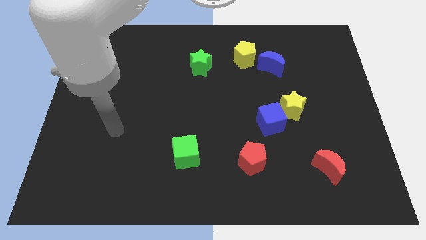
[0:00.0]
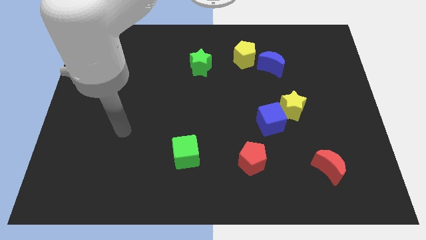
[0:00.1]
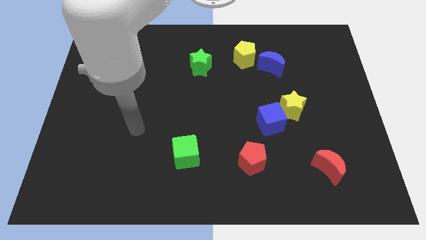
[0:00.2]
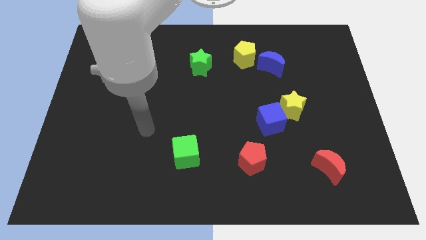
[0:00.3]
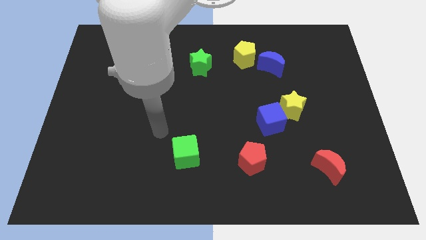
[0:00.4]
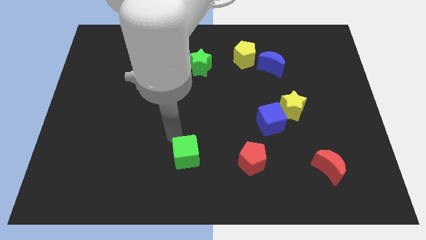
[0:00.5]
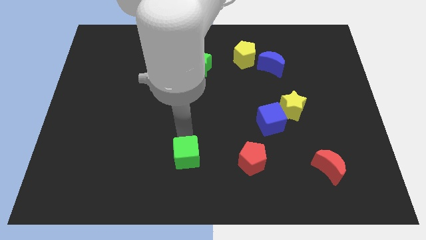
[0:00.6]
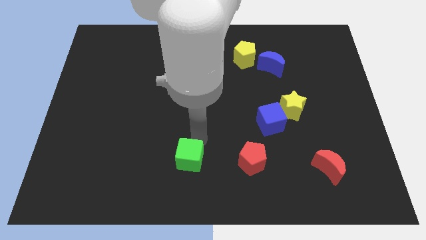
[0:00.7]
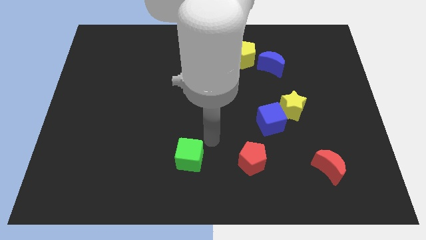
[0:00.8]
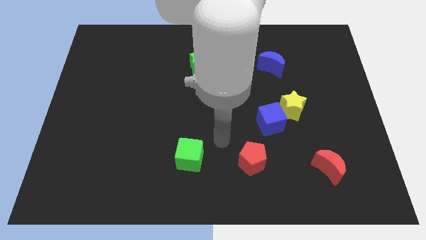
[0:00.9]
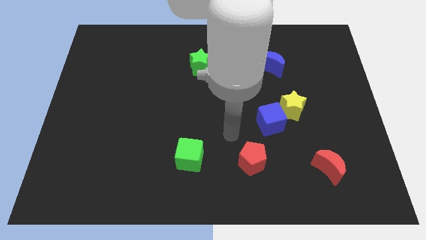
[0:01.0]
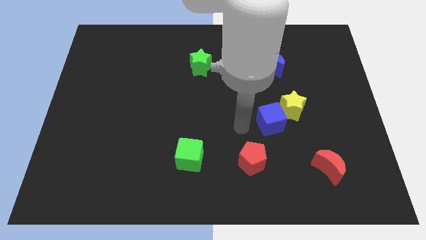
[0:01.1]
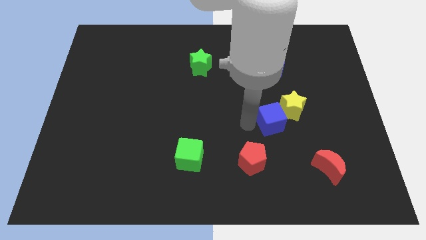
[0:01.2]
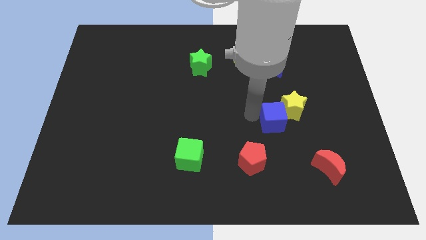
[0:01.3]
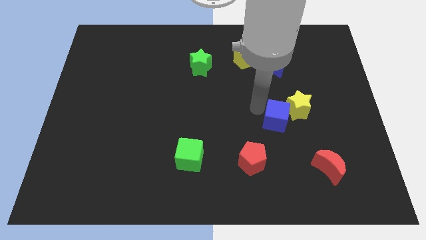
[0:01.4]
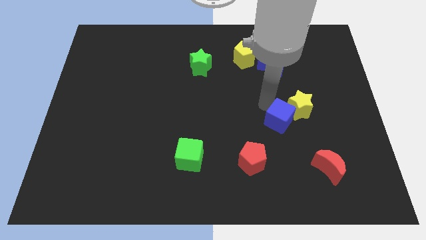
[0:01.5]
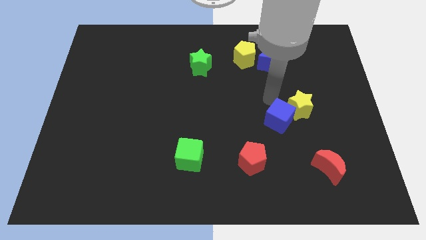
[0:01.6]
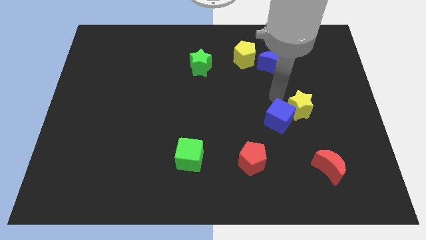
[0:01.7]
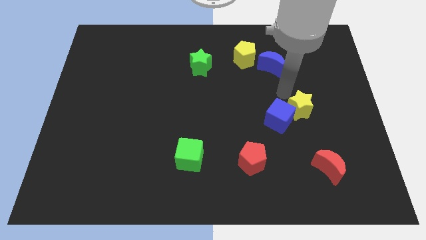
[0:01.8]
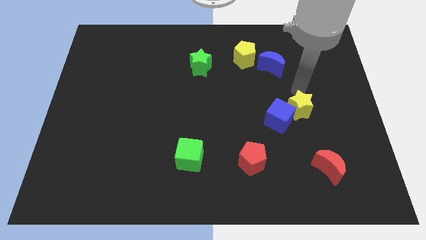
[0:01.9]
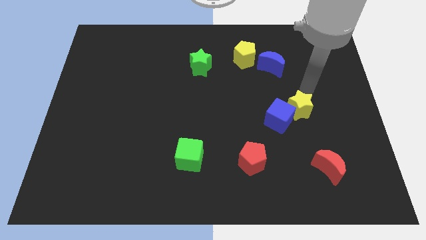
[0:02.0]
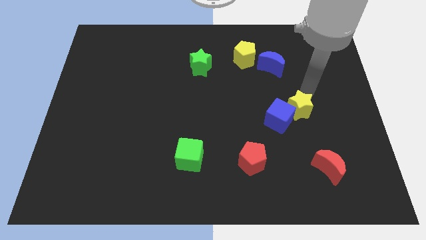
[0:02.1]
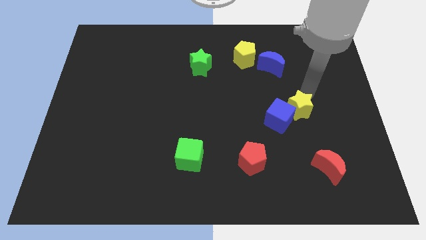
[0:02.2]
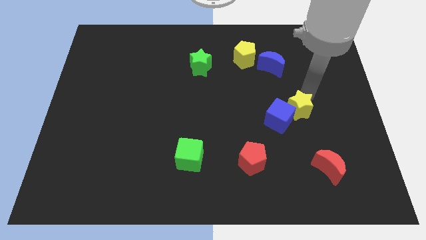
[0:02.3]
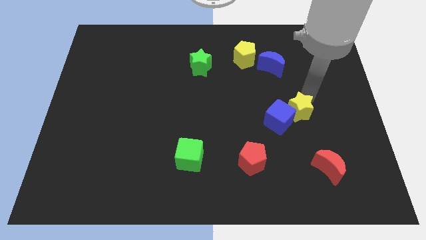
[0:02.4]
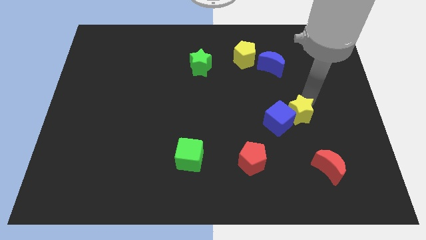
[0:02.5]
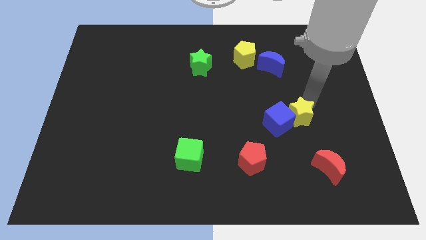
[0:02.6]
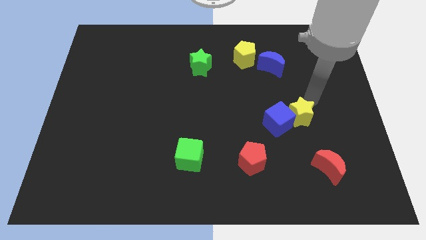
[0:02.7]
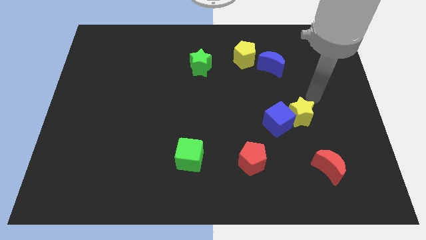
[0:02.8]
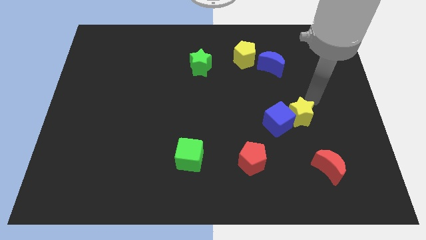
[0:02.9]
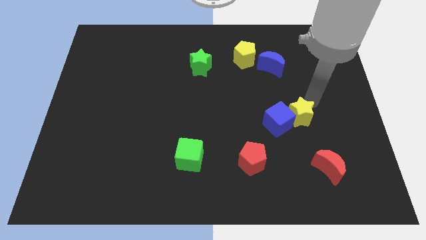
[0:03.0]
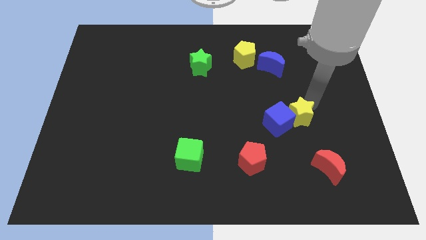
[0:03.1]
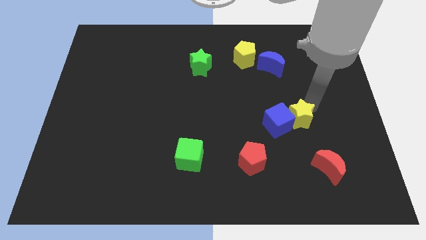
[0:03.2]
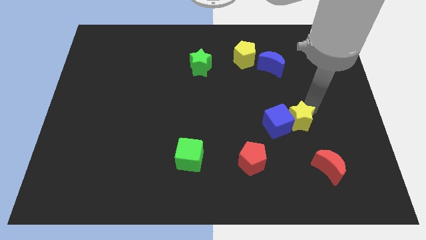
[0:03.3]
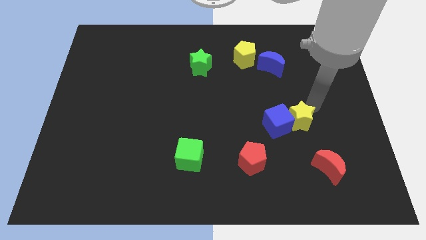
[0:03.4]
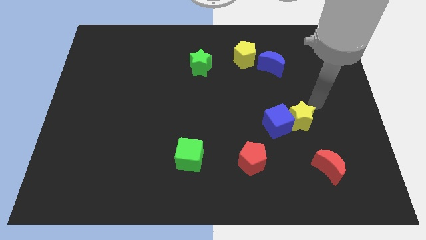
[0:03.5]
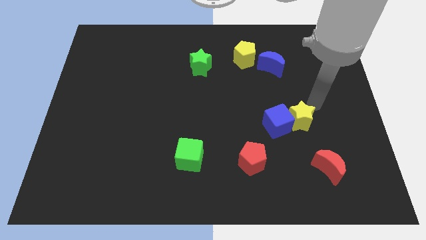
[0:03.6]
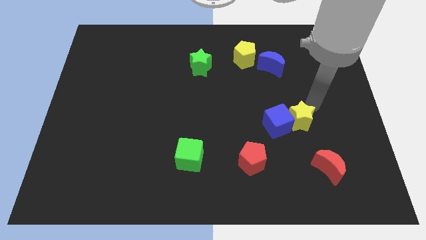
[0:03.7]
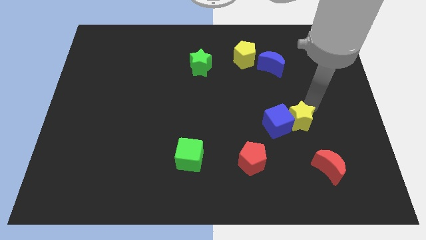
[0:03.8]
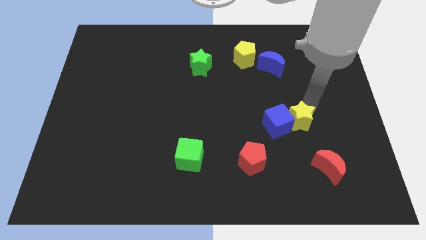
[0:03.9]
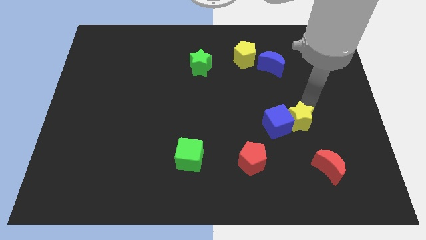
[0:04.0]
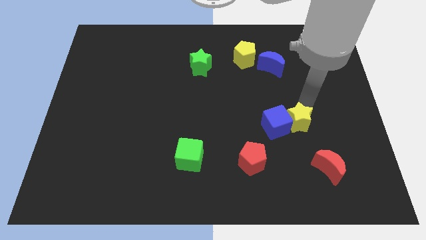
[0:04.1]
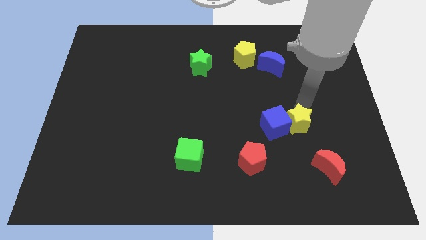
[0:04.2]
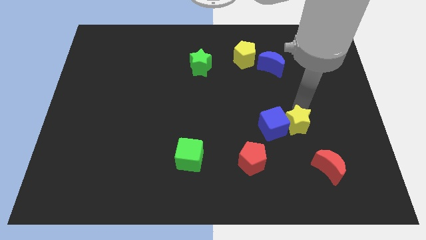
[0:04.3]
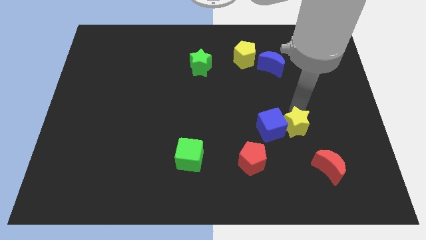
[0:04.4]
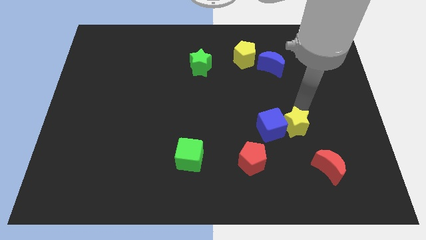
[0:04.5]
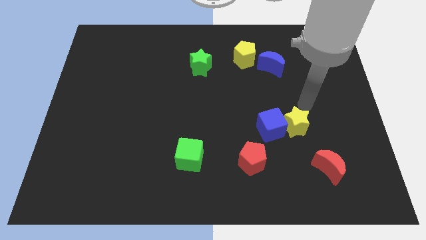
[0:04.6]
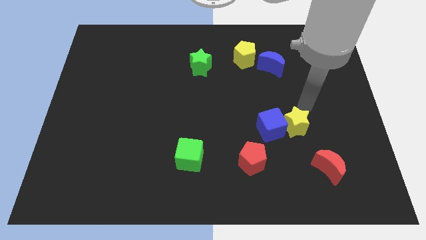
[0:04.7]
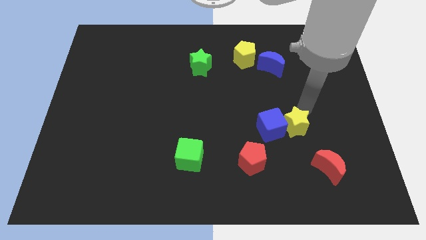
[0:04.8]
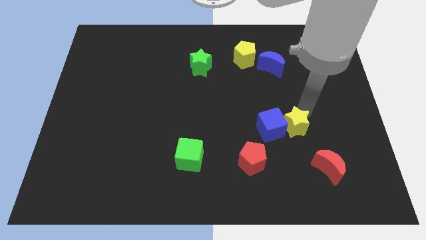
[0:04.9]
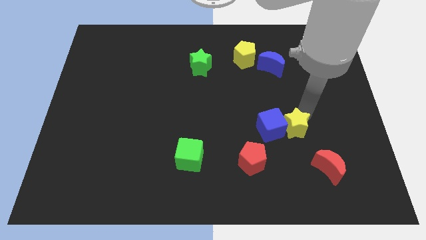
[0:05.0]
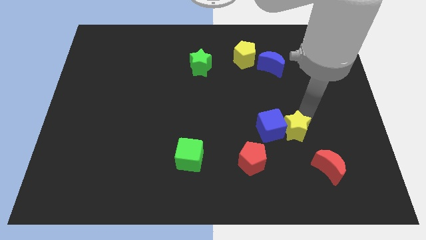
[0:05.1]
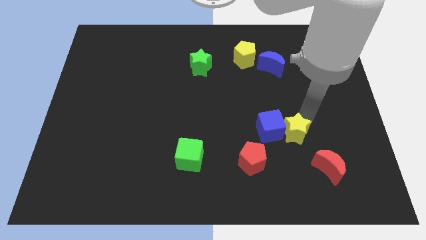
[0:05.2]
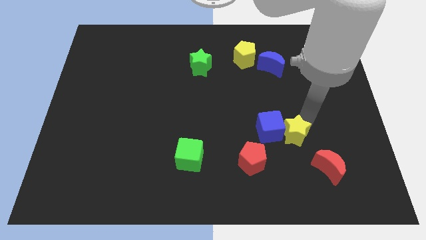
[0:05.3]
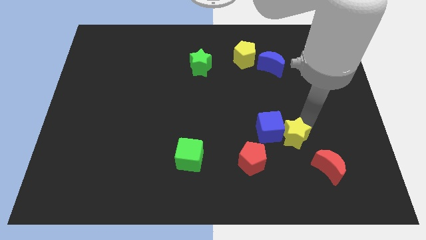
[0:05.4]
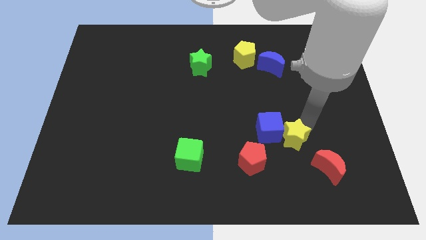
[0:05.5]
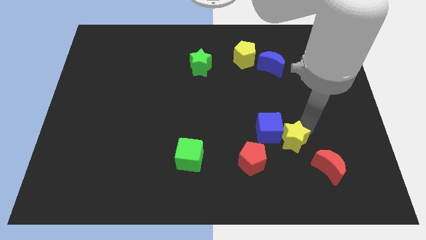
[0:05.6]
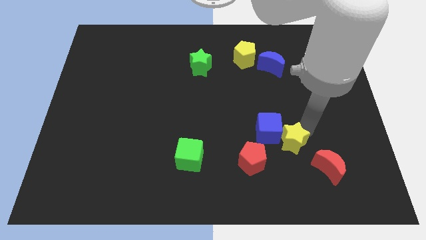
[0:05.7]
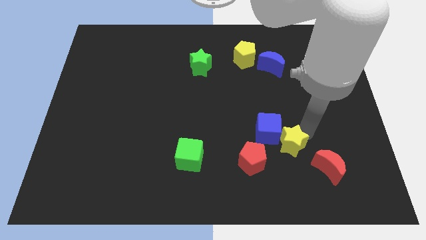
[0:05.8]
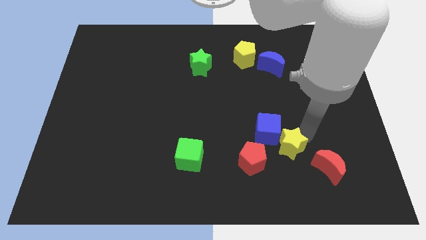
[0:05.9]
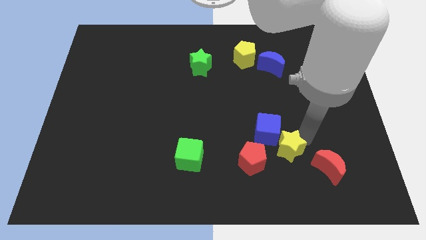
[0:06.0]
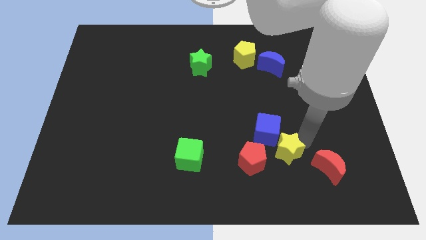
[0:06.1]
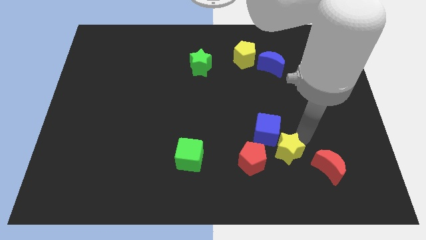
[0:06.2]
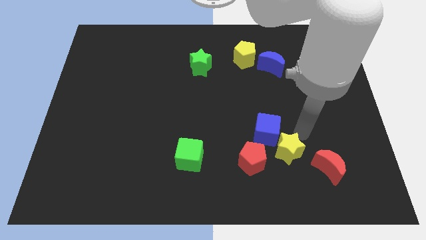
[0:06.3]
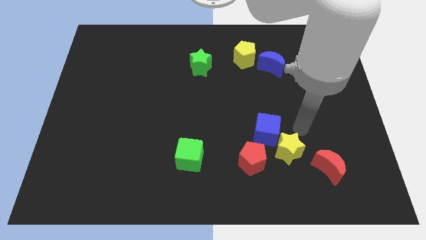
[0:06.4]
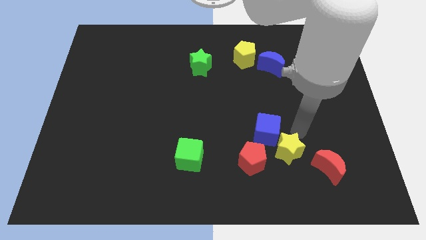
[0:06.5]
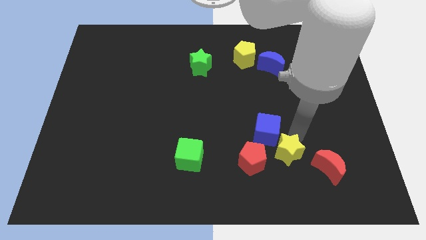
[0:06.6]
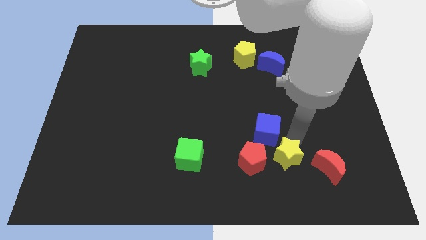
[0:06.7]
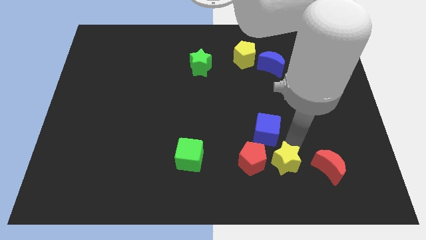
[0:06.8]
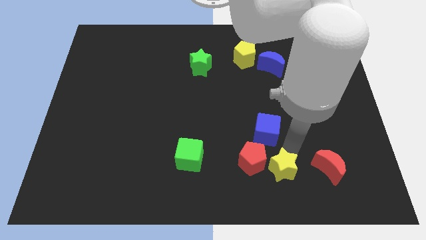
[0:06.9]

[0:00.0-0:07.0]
move the yellow star to the bottom right of the red pentagon

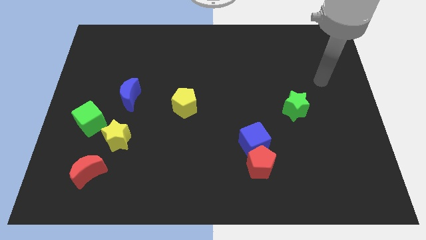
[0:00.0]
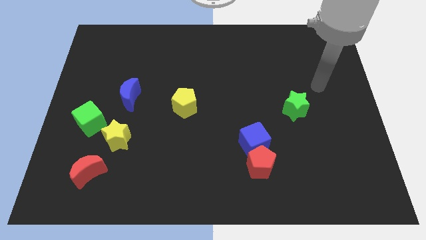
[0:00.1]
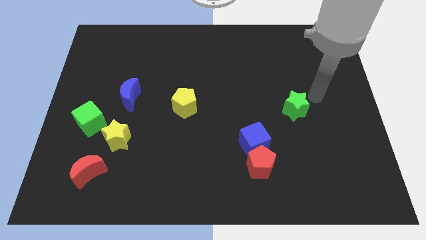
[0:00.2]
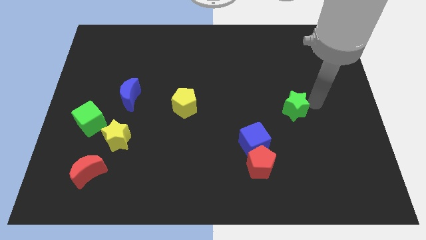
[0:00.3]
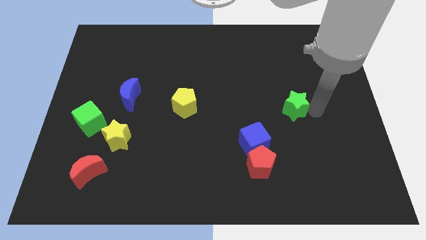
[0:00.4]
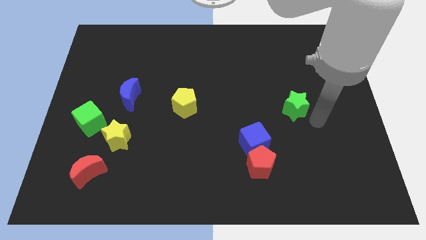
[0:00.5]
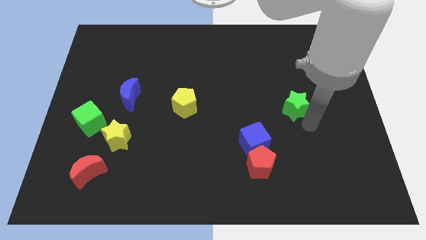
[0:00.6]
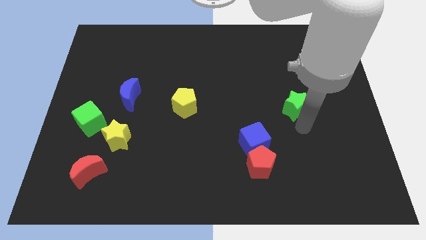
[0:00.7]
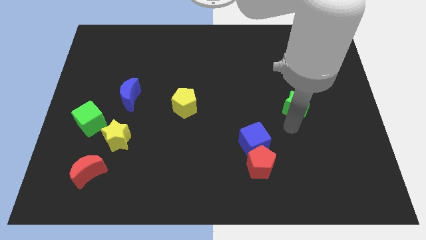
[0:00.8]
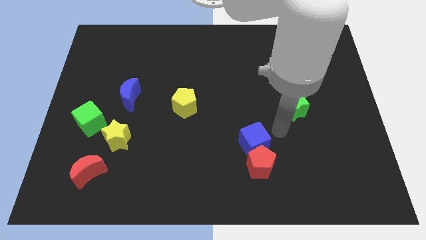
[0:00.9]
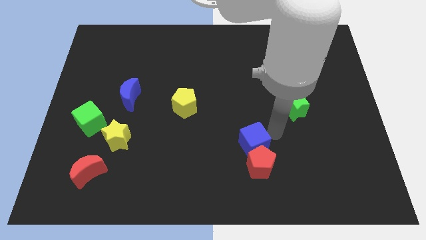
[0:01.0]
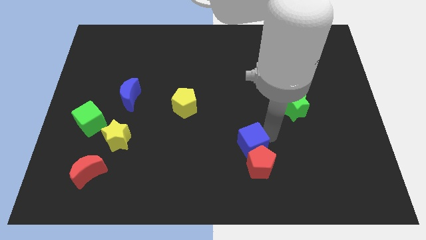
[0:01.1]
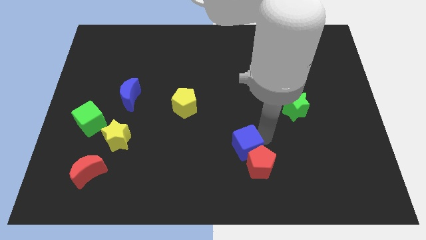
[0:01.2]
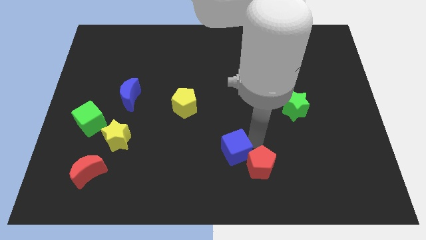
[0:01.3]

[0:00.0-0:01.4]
push the blue cube to the left side of the red pentagon
